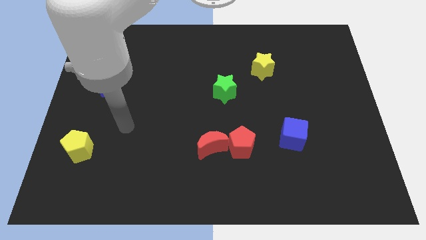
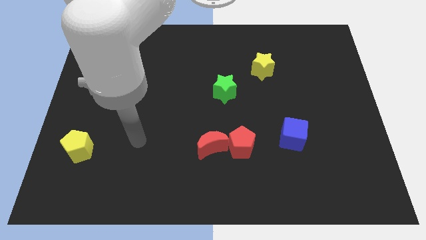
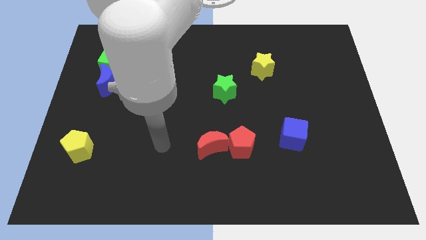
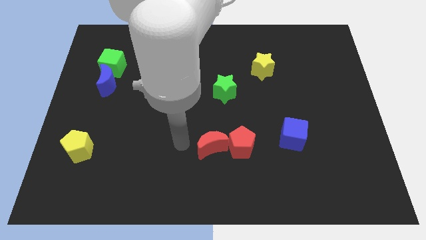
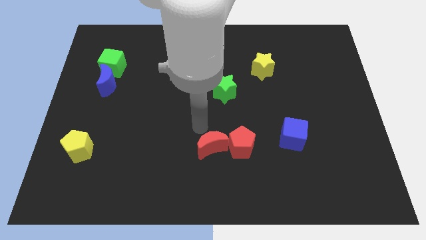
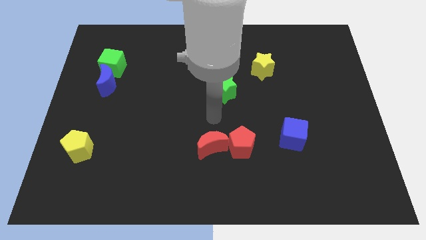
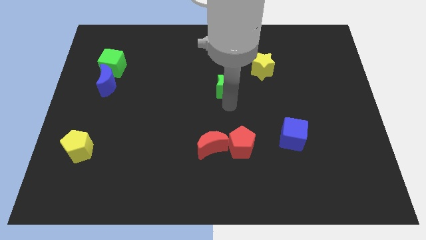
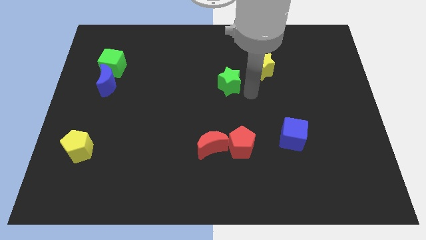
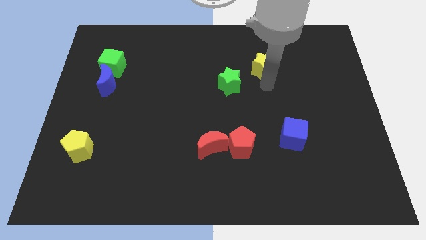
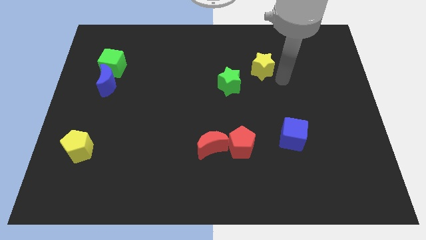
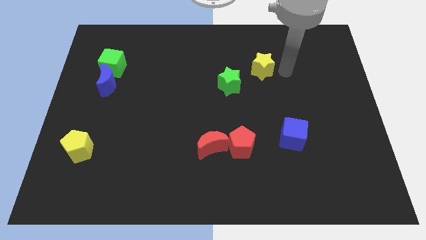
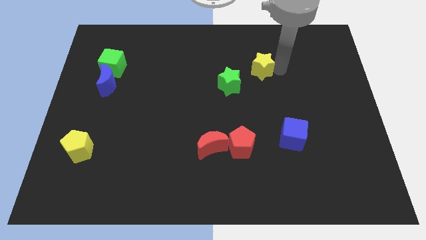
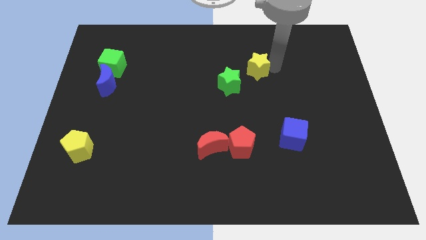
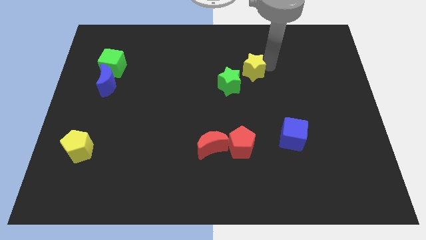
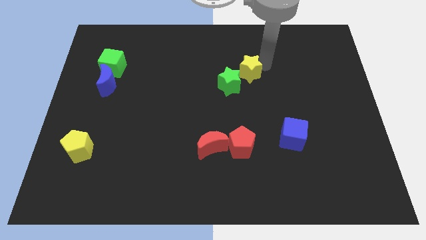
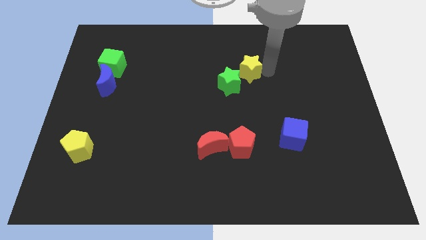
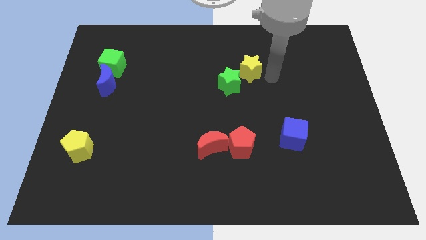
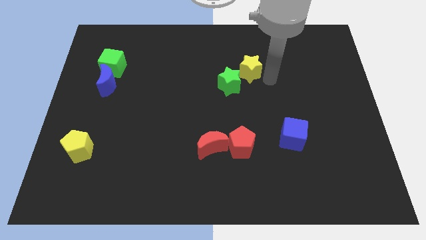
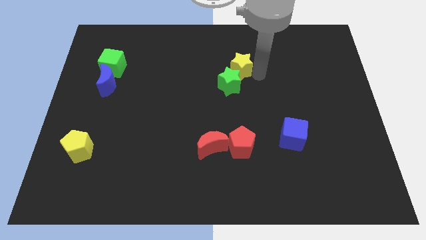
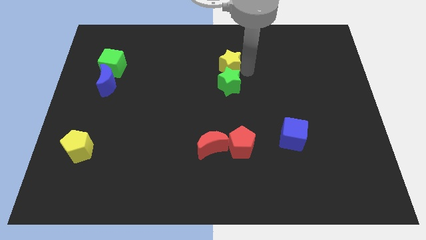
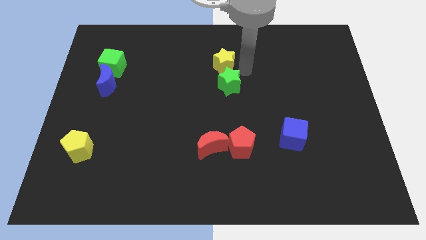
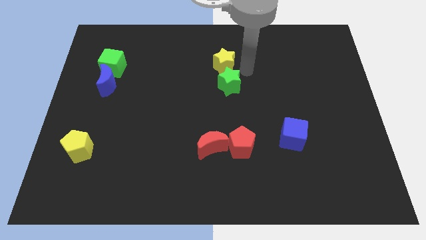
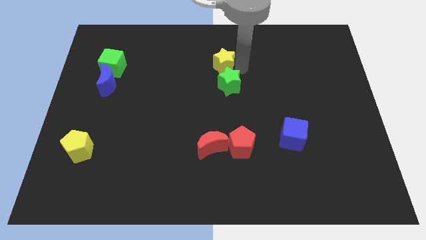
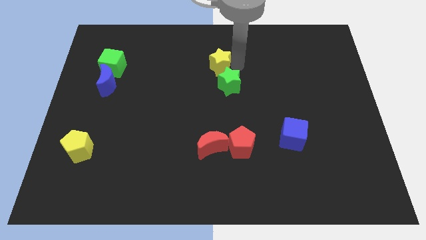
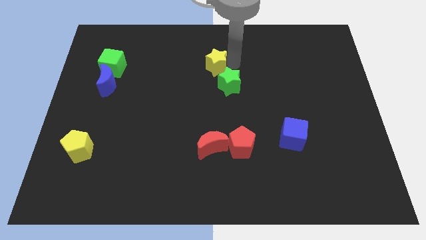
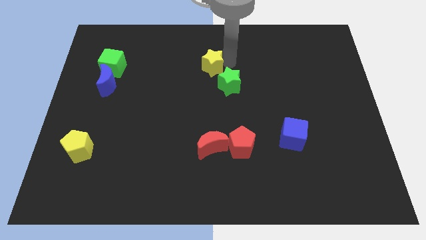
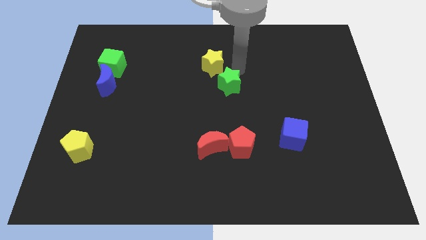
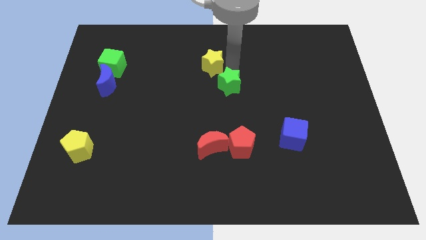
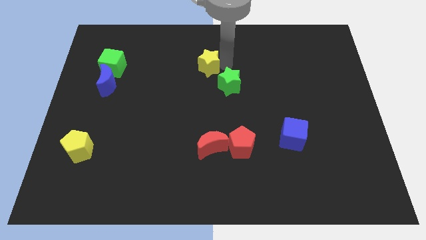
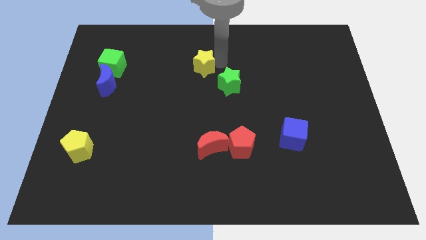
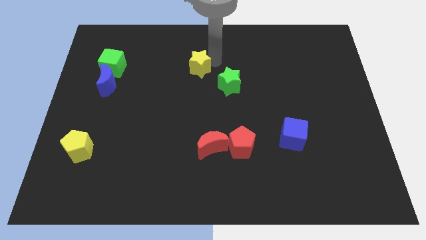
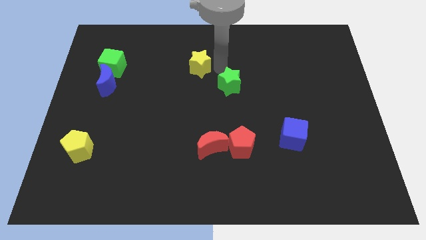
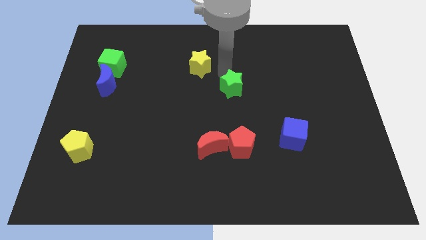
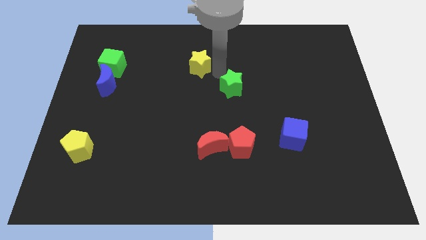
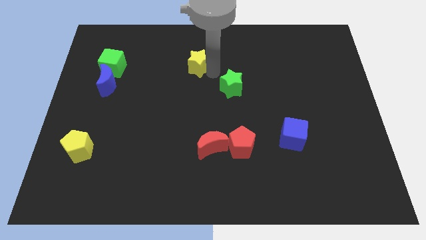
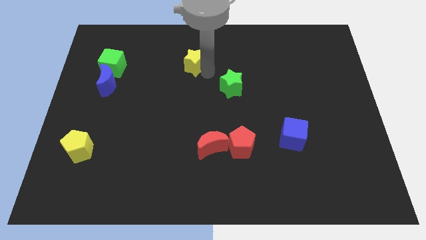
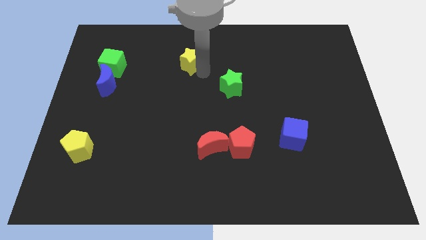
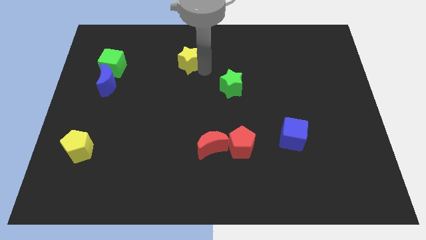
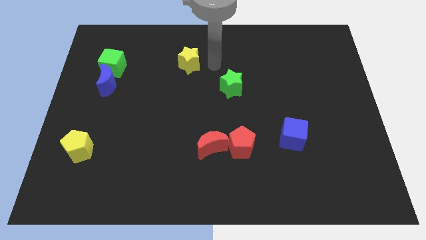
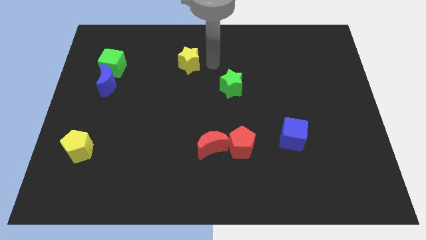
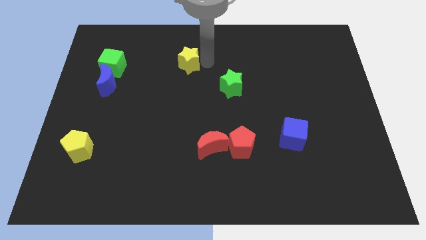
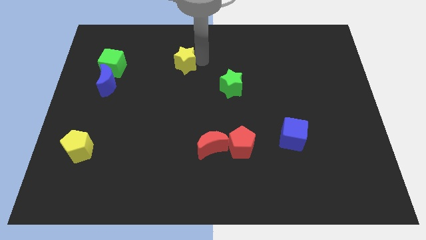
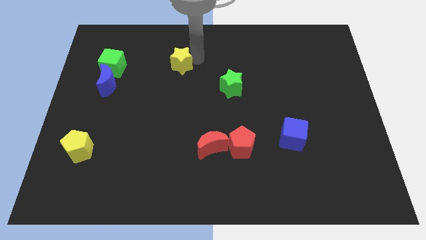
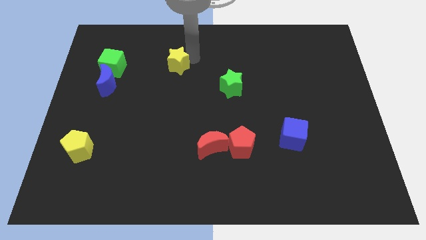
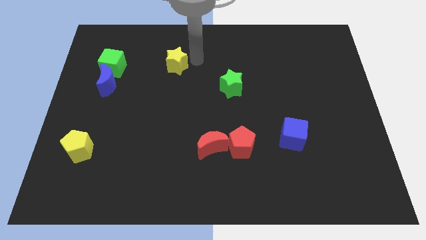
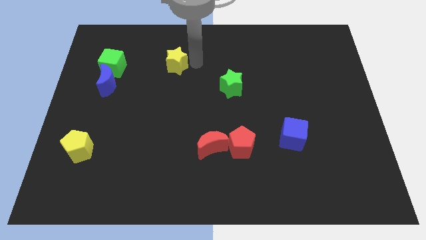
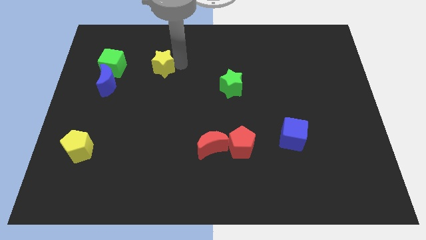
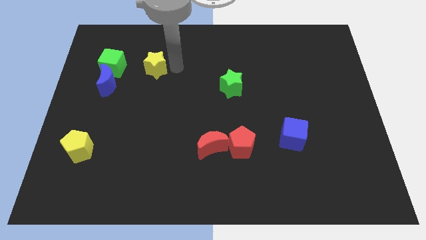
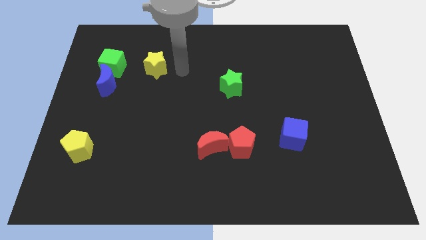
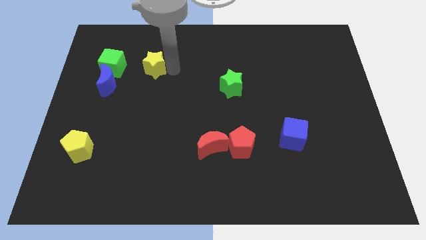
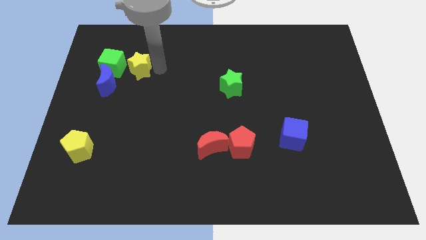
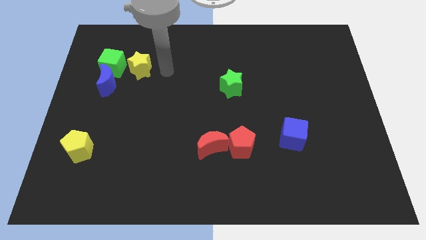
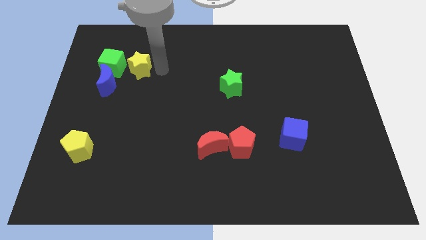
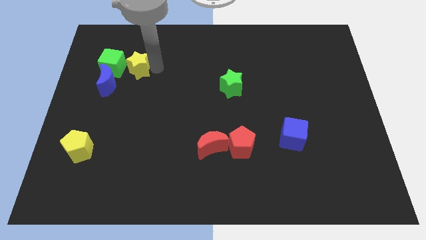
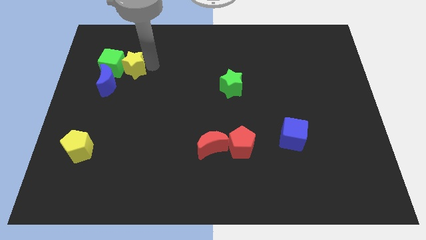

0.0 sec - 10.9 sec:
slide the yellow star close to the green cube

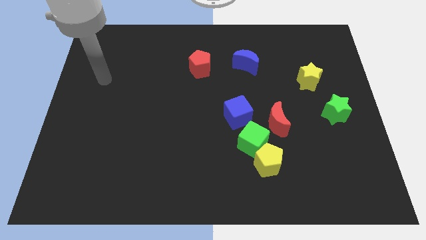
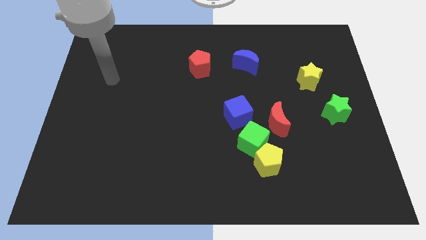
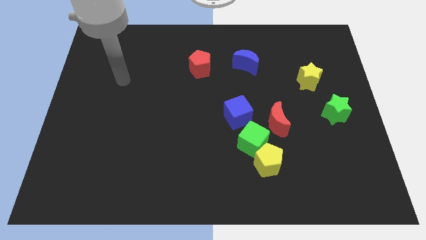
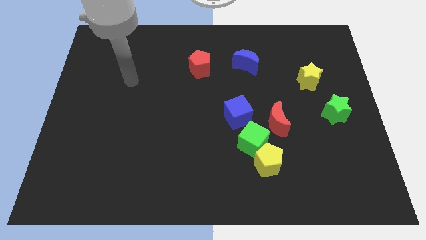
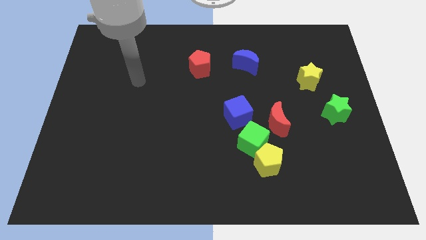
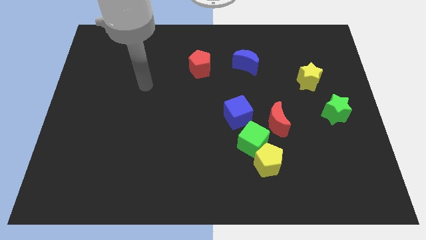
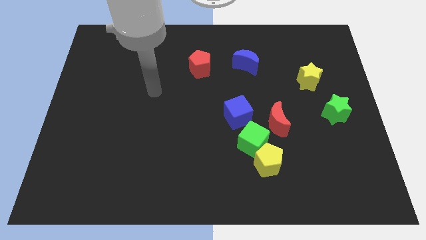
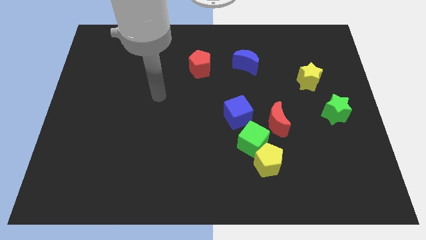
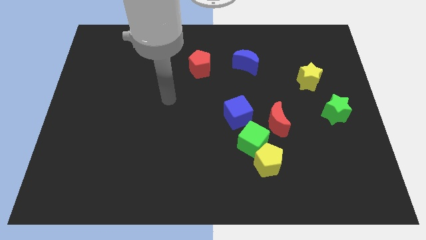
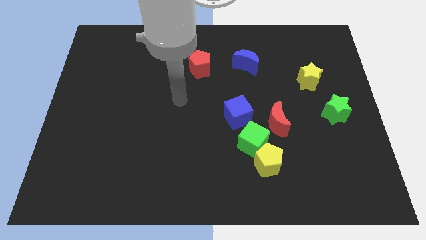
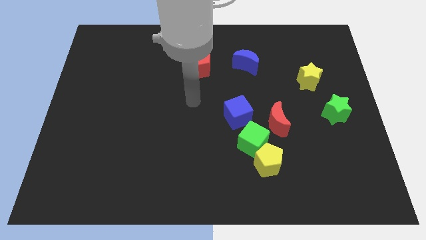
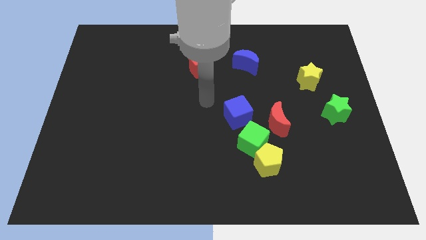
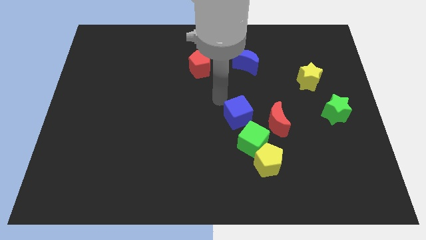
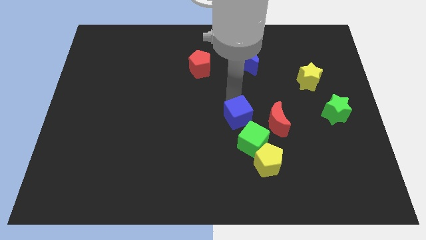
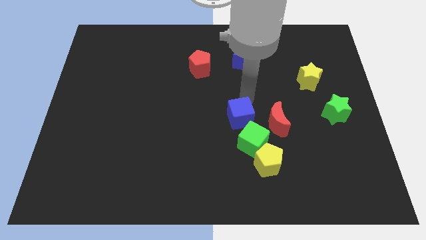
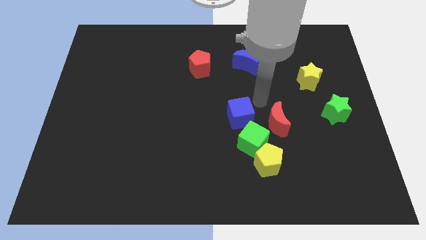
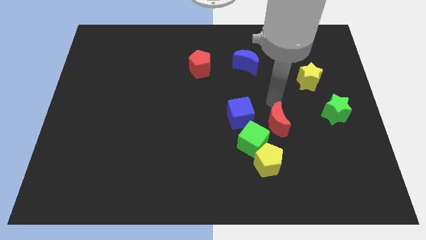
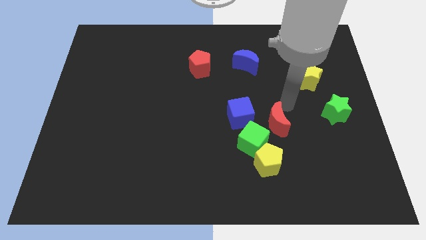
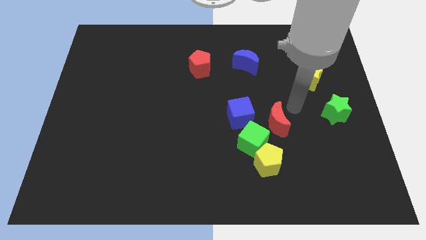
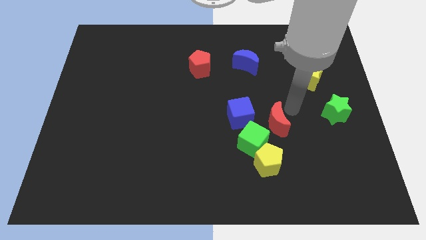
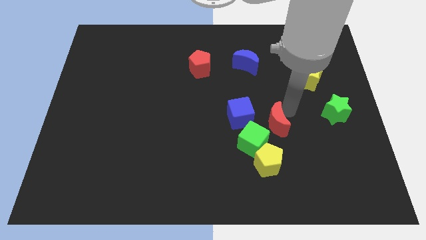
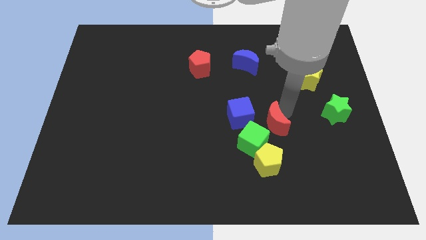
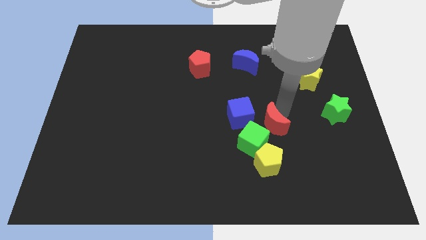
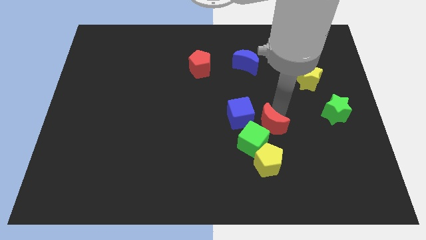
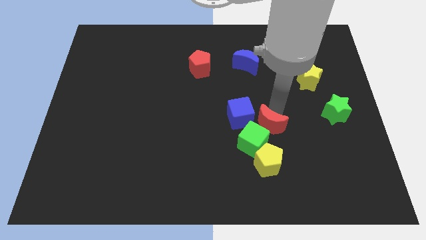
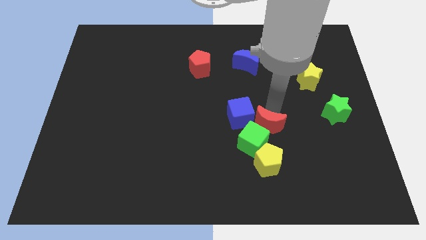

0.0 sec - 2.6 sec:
move the red moon to the green cube
